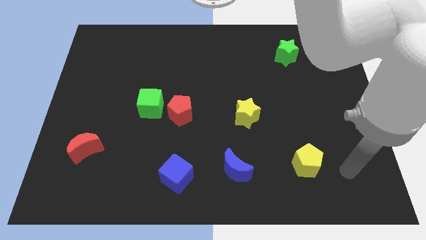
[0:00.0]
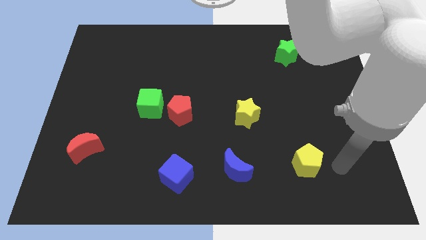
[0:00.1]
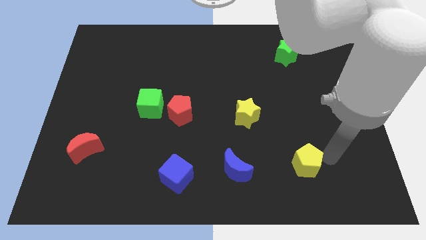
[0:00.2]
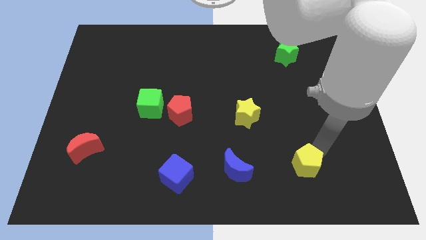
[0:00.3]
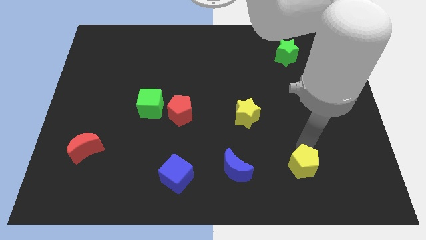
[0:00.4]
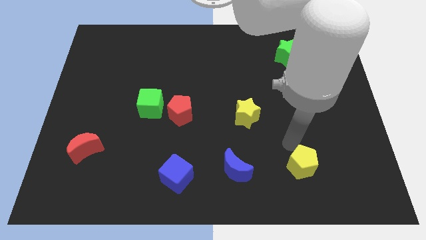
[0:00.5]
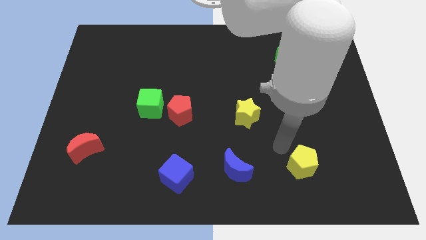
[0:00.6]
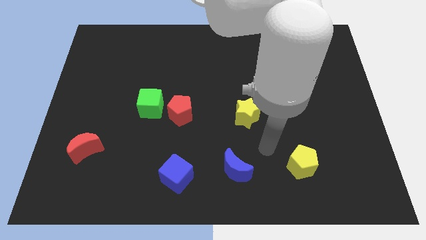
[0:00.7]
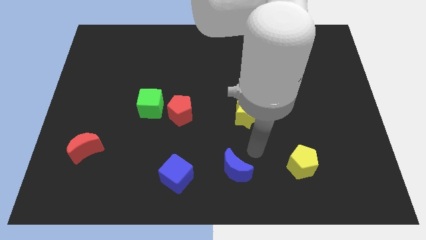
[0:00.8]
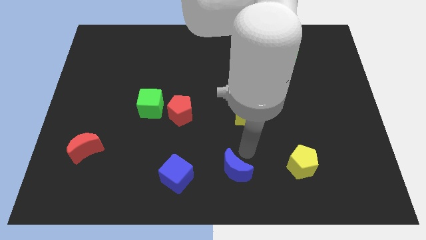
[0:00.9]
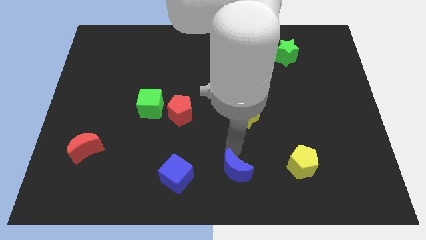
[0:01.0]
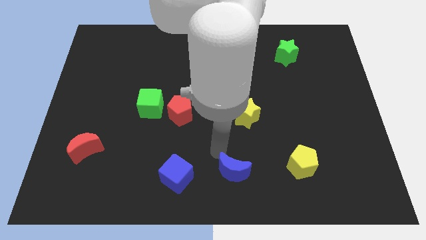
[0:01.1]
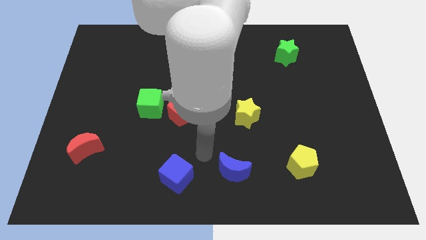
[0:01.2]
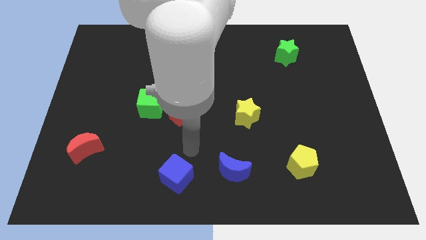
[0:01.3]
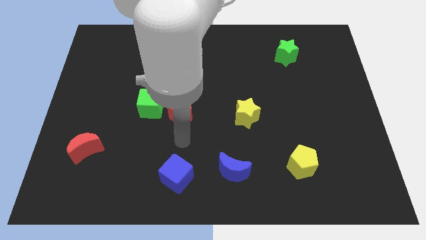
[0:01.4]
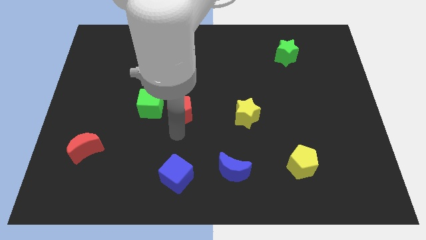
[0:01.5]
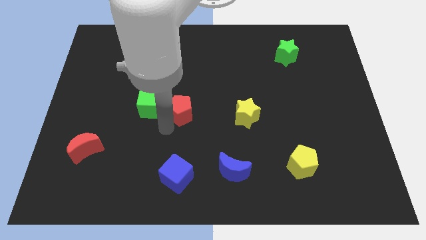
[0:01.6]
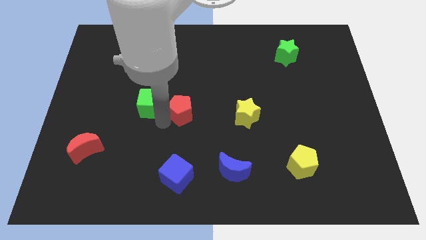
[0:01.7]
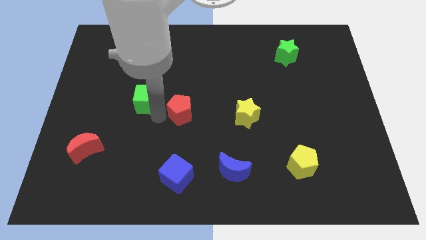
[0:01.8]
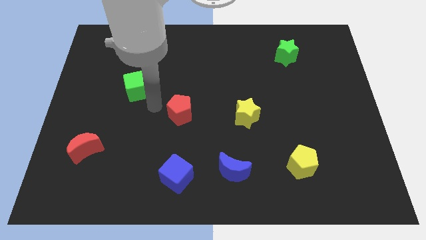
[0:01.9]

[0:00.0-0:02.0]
pull the red pentagon apart from the green cube

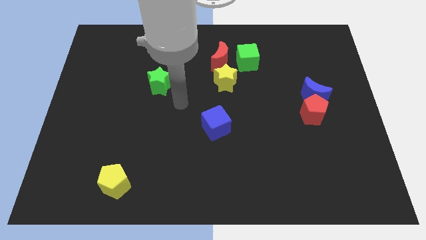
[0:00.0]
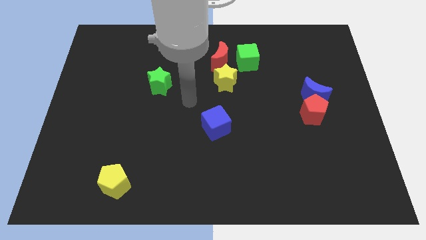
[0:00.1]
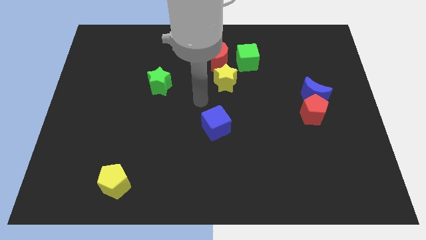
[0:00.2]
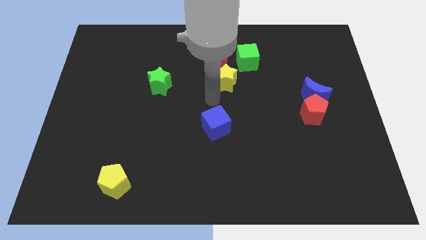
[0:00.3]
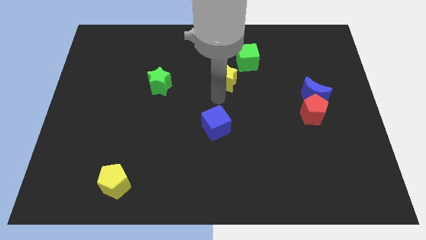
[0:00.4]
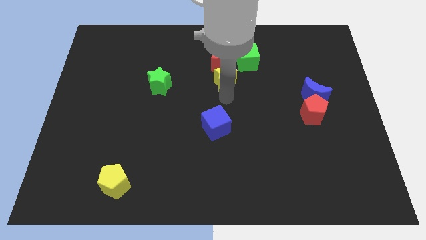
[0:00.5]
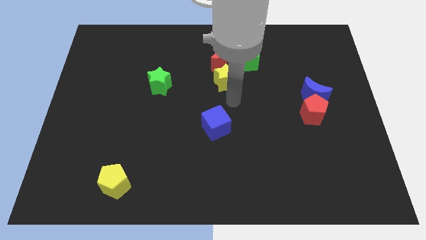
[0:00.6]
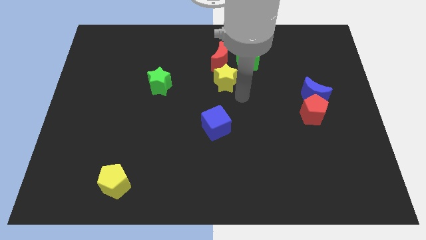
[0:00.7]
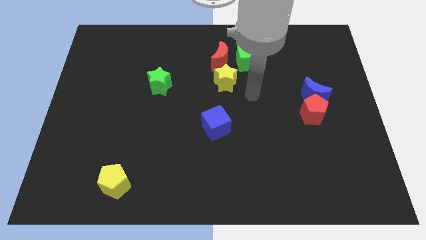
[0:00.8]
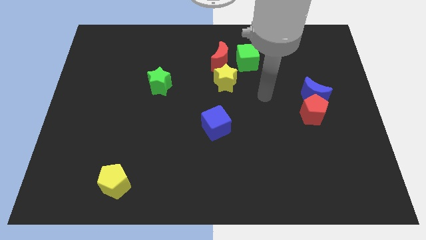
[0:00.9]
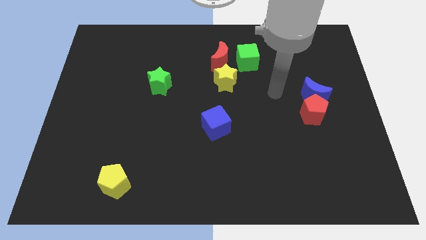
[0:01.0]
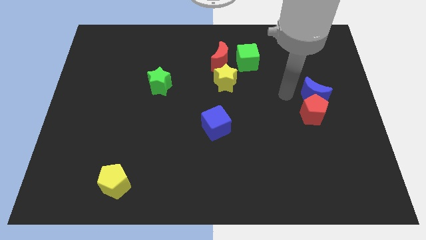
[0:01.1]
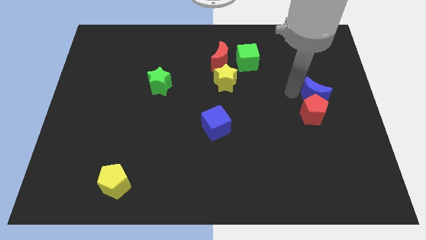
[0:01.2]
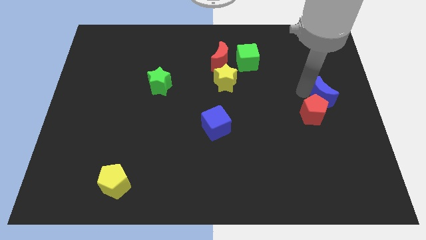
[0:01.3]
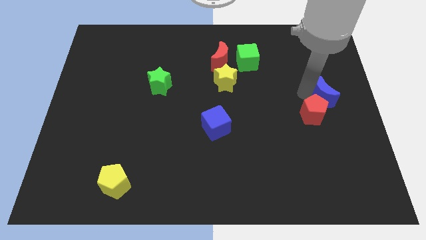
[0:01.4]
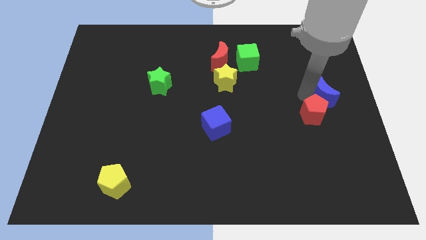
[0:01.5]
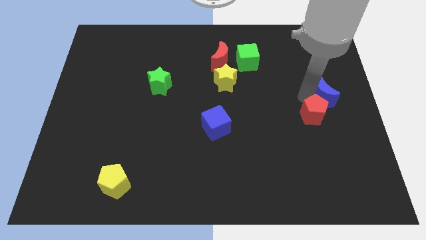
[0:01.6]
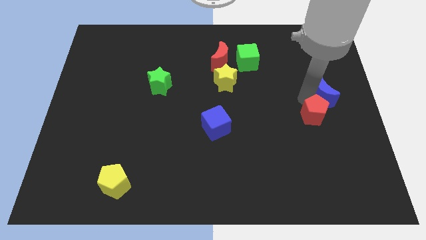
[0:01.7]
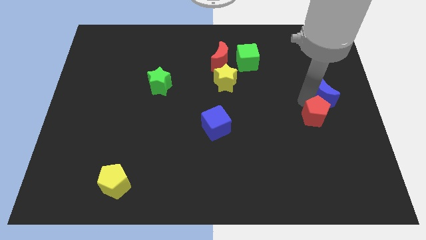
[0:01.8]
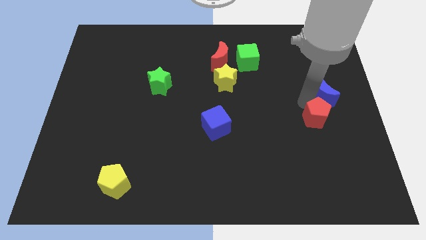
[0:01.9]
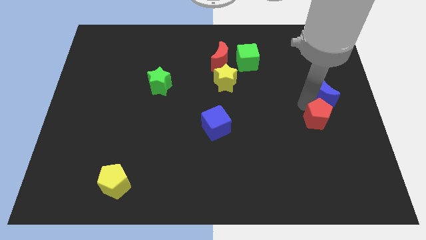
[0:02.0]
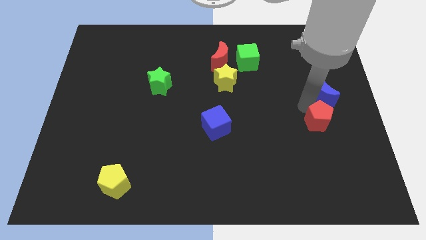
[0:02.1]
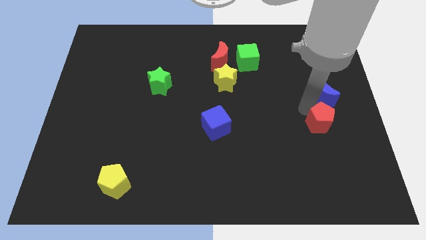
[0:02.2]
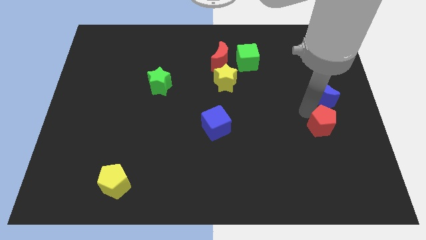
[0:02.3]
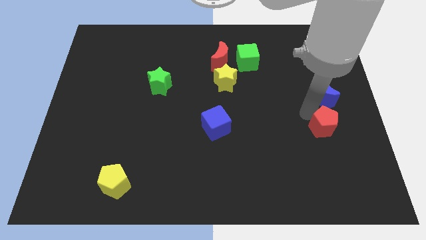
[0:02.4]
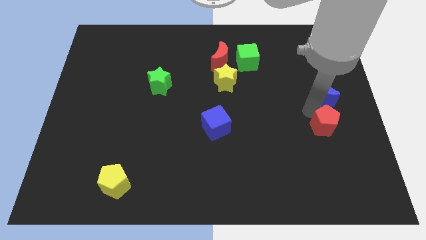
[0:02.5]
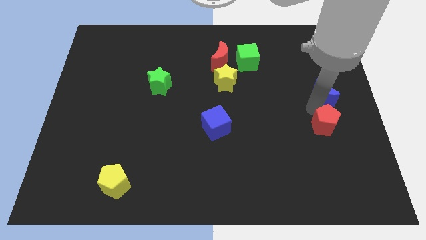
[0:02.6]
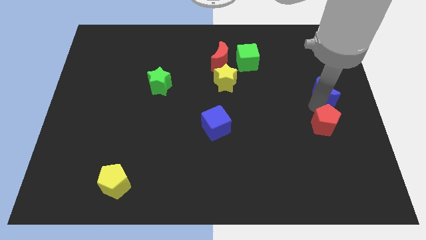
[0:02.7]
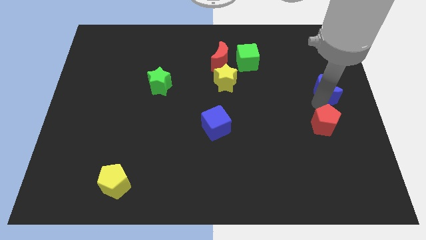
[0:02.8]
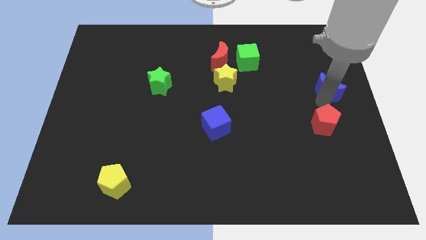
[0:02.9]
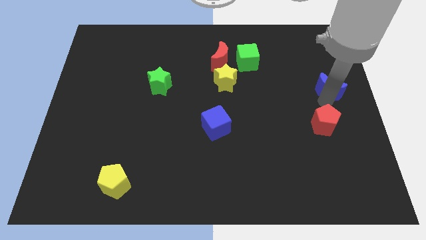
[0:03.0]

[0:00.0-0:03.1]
separate the red pentagon from the blue moon

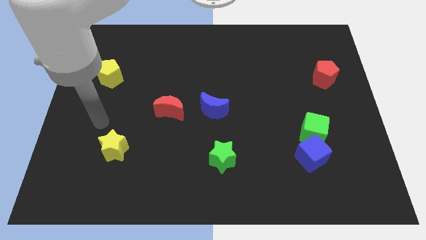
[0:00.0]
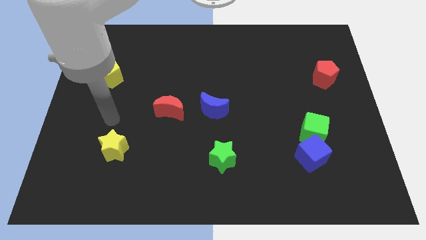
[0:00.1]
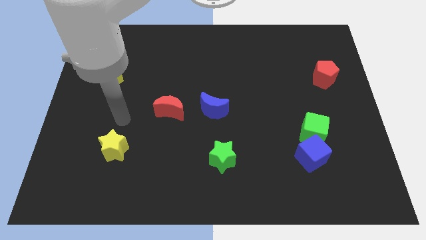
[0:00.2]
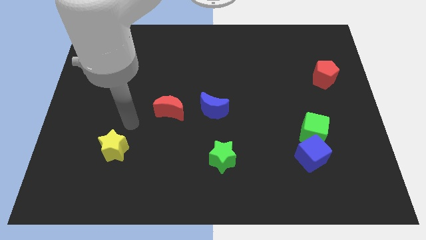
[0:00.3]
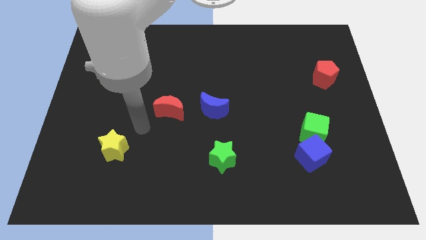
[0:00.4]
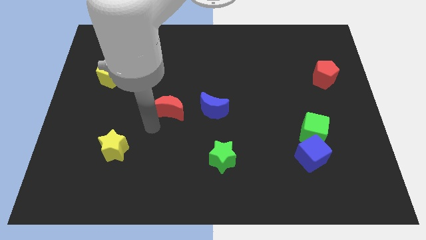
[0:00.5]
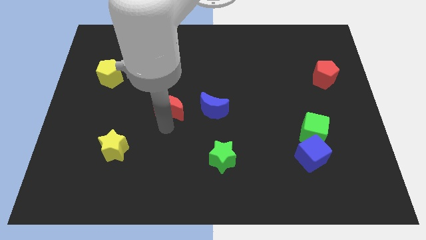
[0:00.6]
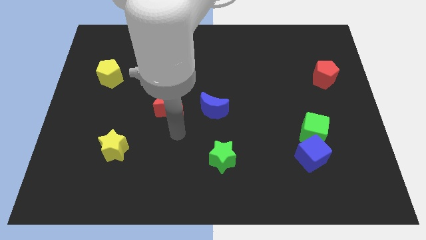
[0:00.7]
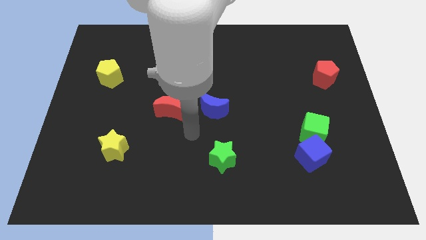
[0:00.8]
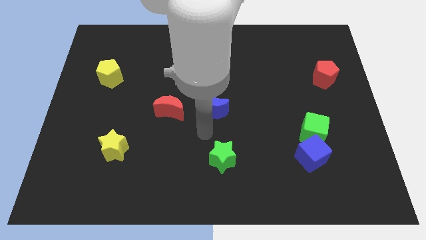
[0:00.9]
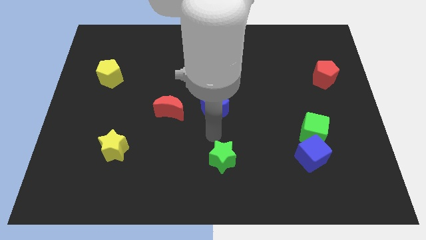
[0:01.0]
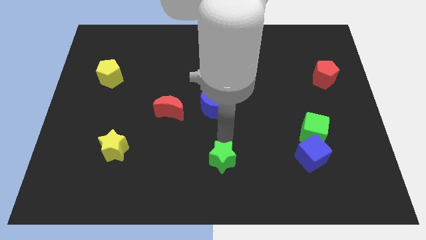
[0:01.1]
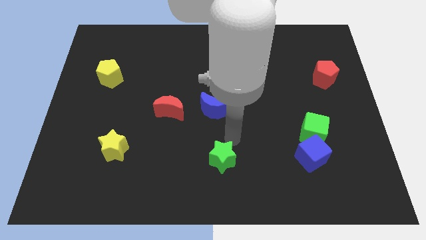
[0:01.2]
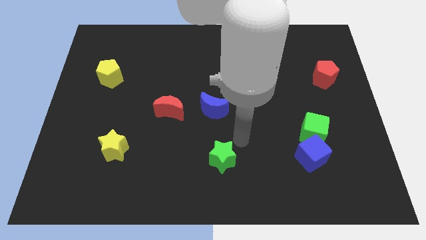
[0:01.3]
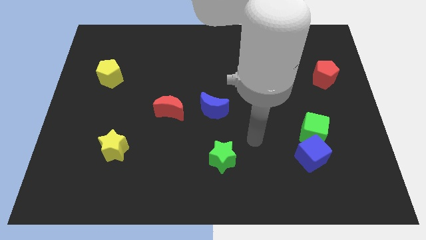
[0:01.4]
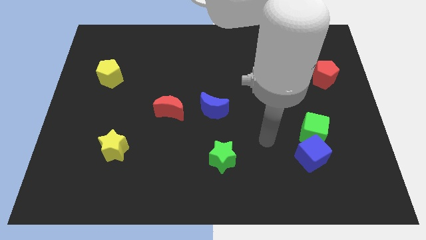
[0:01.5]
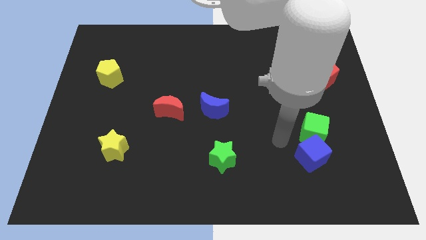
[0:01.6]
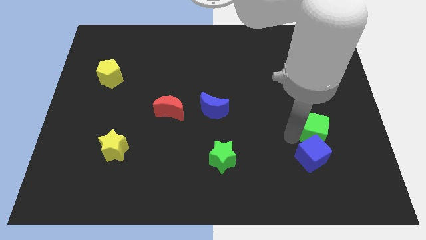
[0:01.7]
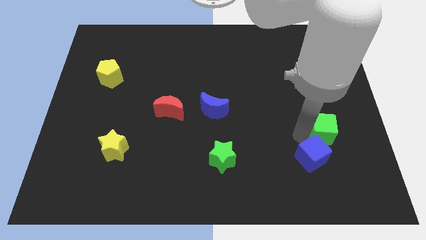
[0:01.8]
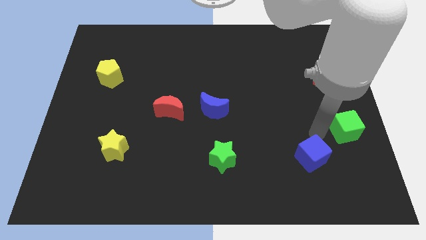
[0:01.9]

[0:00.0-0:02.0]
pull the blue cube apart from the green cube

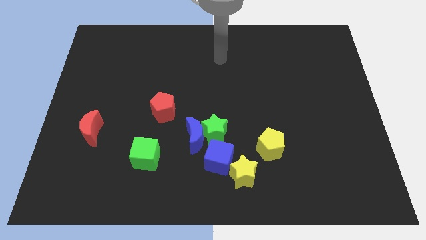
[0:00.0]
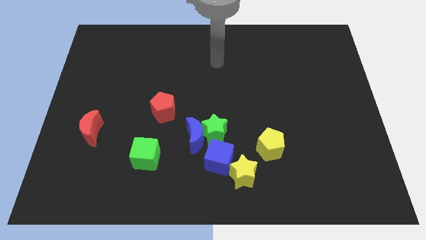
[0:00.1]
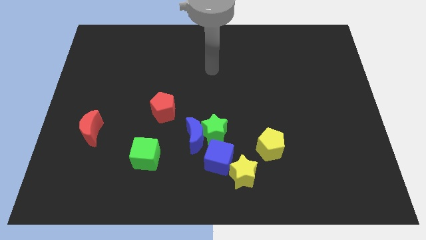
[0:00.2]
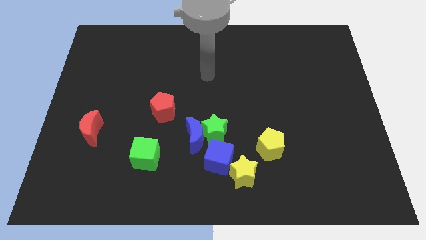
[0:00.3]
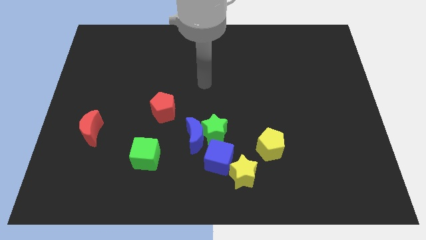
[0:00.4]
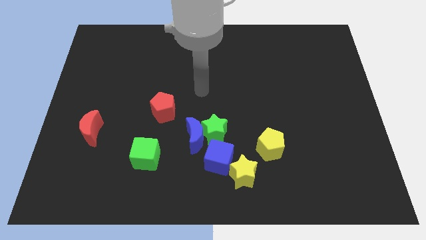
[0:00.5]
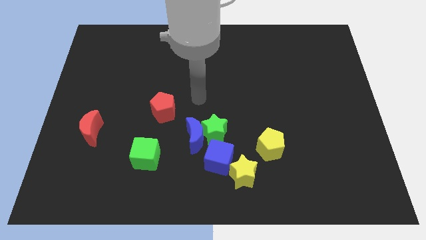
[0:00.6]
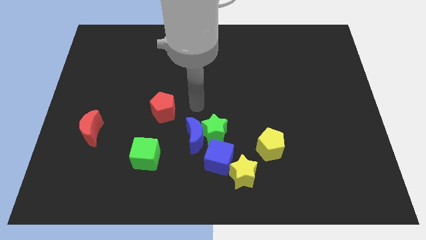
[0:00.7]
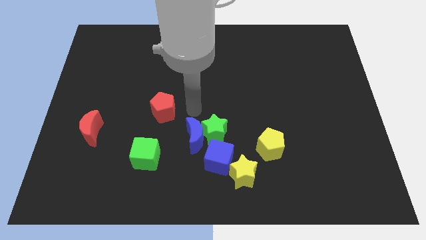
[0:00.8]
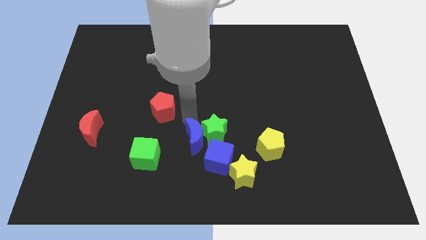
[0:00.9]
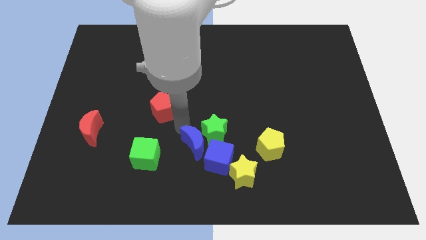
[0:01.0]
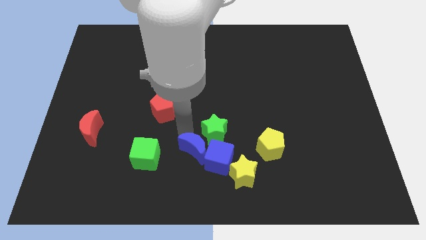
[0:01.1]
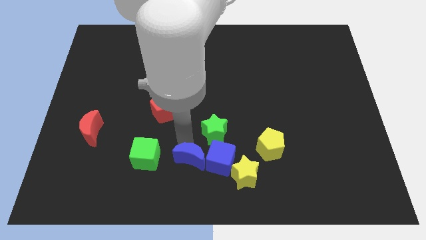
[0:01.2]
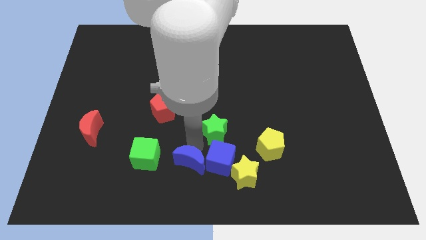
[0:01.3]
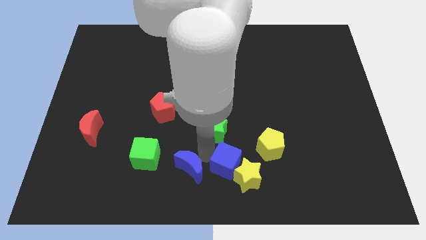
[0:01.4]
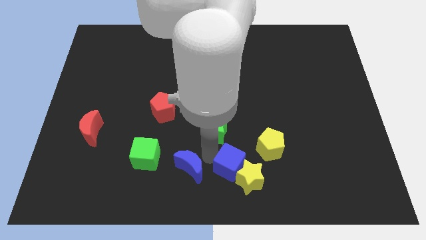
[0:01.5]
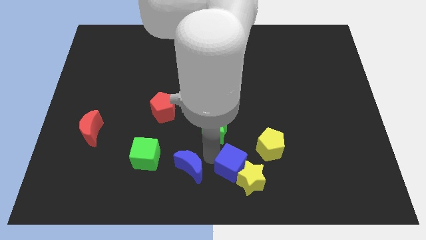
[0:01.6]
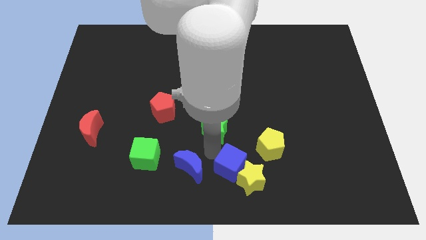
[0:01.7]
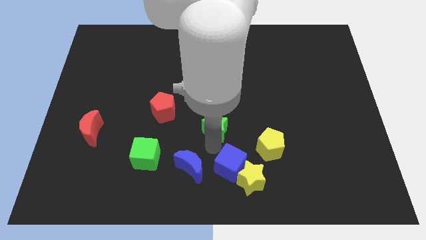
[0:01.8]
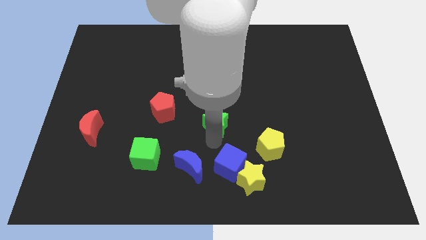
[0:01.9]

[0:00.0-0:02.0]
pull the green star apart from the blue moon and blue cube

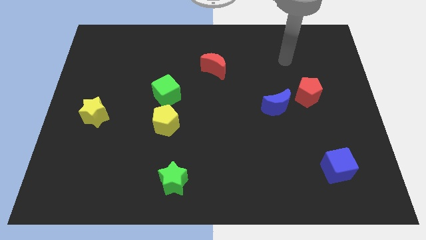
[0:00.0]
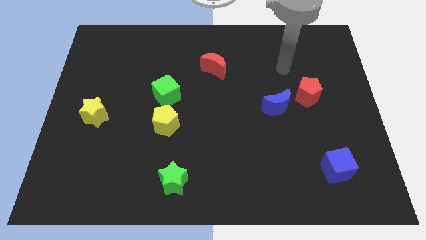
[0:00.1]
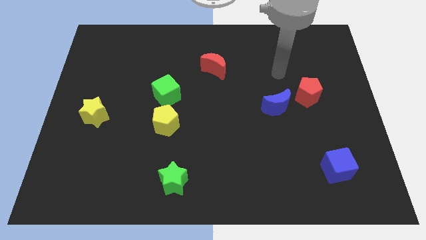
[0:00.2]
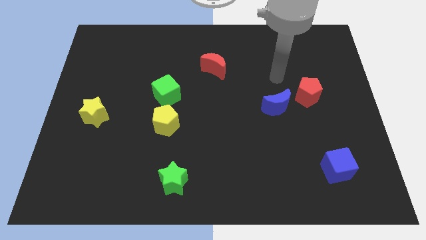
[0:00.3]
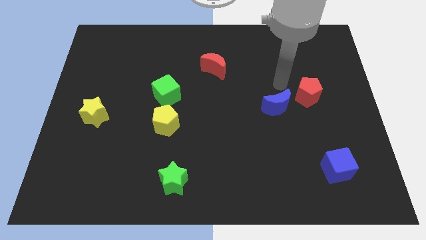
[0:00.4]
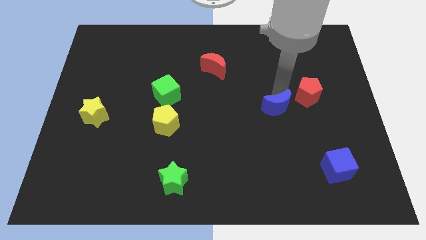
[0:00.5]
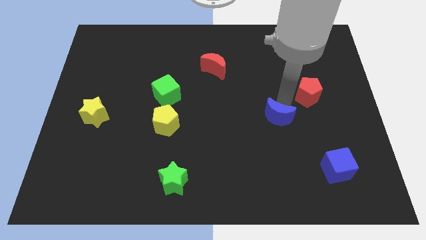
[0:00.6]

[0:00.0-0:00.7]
move the red pentagon away from the blue moon
